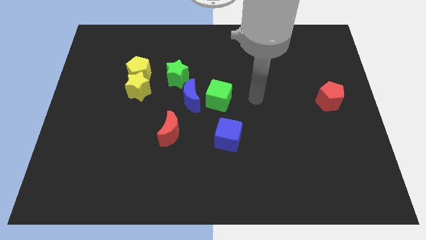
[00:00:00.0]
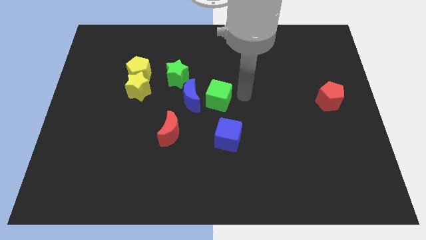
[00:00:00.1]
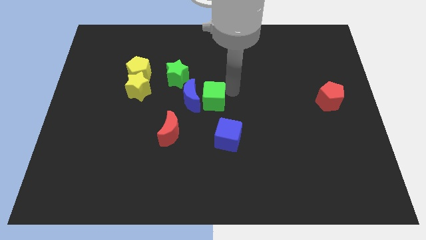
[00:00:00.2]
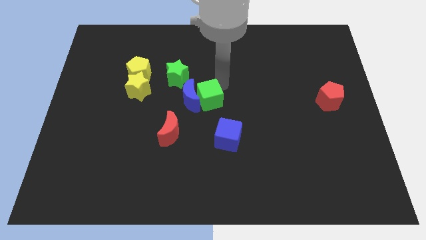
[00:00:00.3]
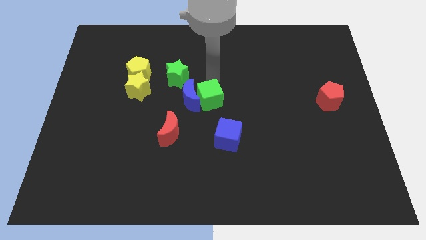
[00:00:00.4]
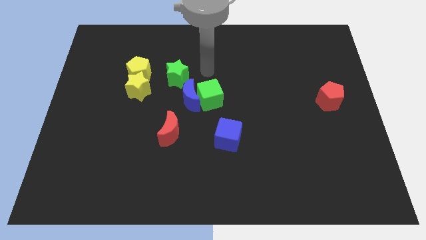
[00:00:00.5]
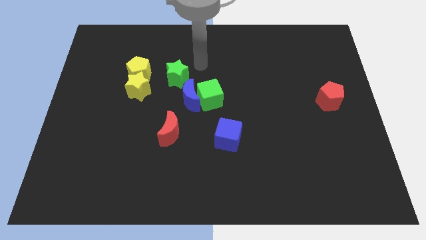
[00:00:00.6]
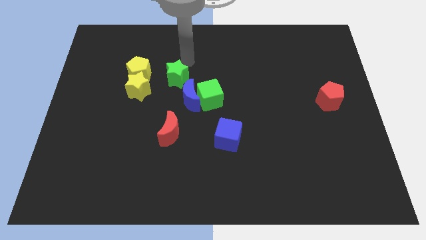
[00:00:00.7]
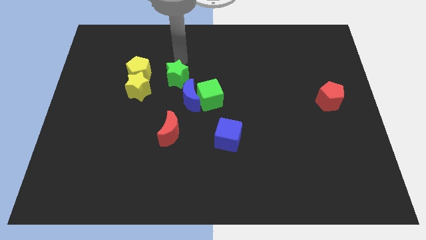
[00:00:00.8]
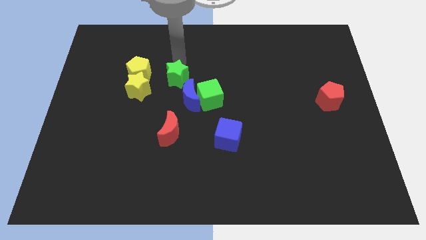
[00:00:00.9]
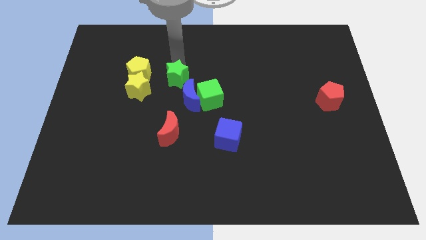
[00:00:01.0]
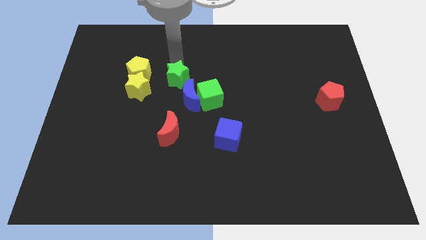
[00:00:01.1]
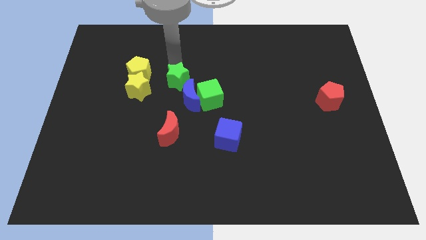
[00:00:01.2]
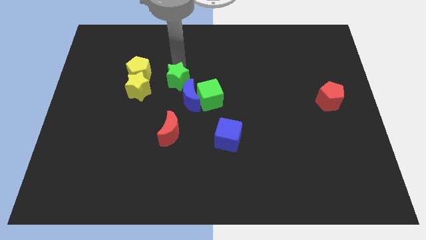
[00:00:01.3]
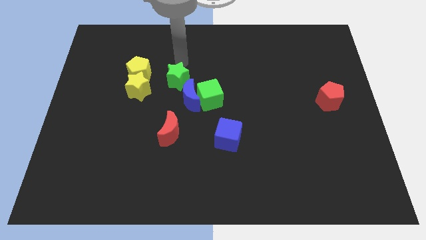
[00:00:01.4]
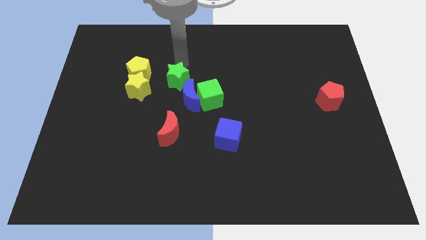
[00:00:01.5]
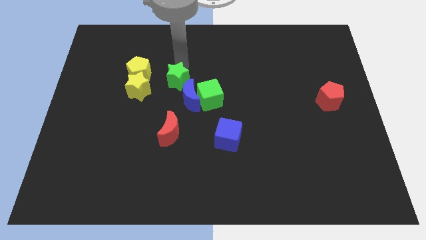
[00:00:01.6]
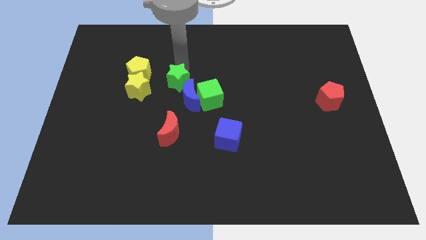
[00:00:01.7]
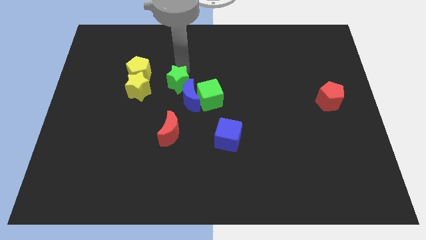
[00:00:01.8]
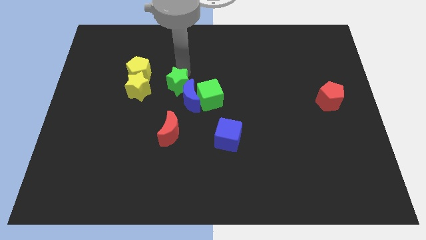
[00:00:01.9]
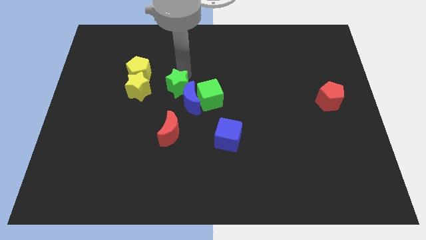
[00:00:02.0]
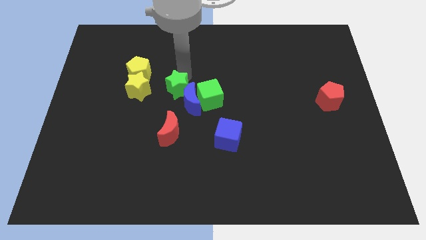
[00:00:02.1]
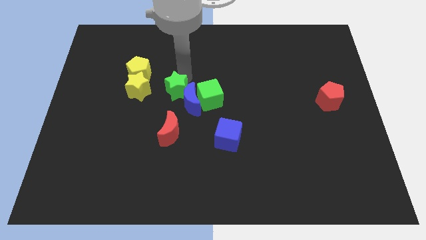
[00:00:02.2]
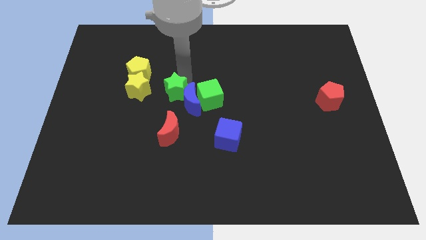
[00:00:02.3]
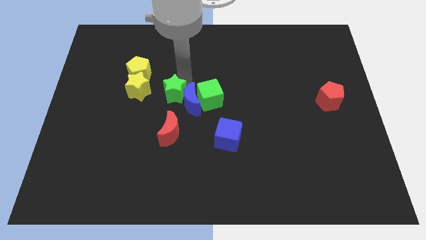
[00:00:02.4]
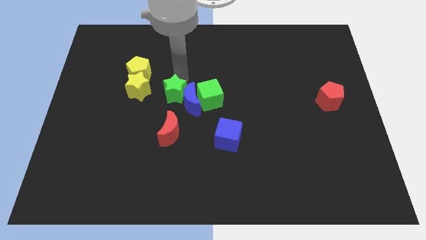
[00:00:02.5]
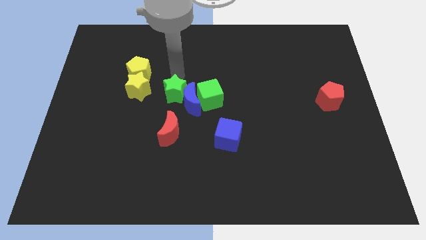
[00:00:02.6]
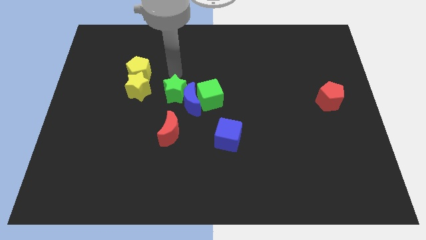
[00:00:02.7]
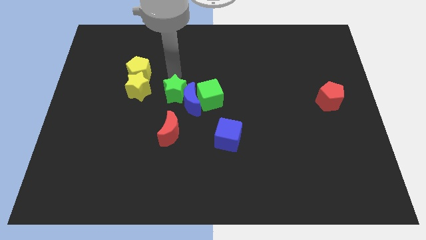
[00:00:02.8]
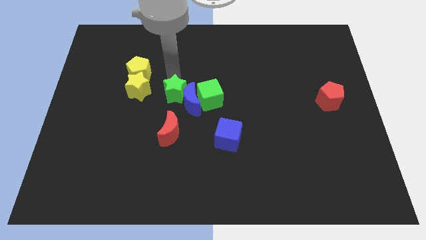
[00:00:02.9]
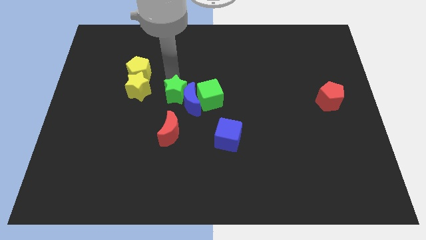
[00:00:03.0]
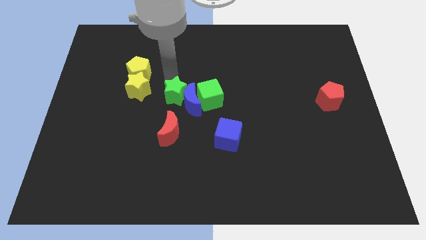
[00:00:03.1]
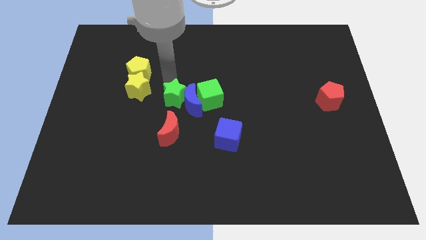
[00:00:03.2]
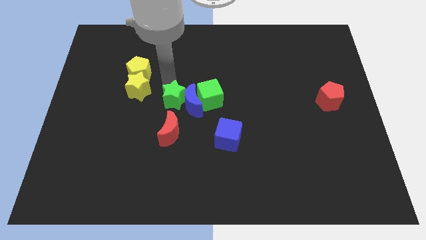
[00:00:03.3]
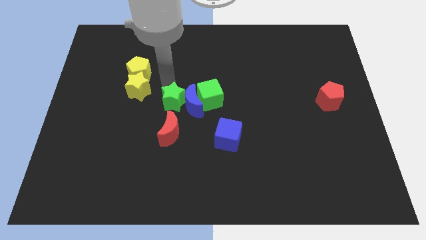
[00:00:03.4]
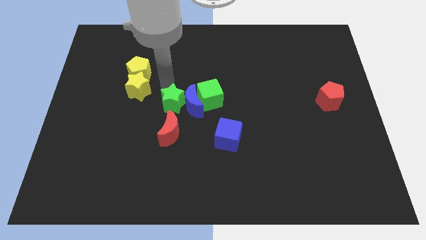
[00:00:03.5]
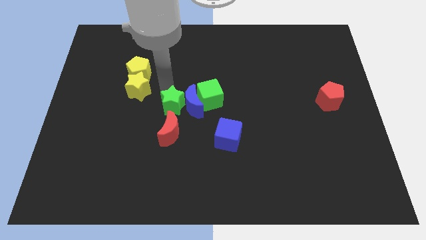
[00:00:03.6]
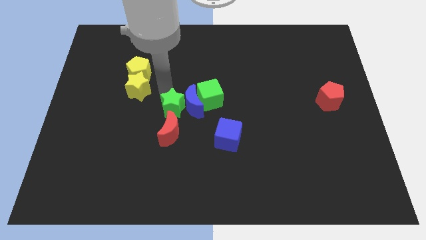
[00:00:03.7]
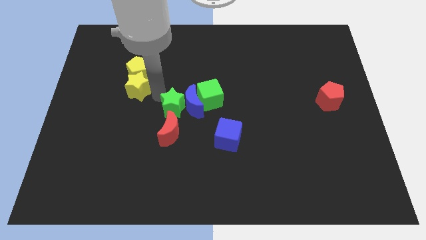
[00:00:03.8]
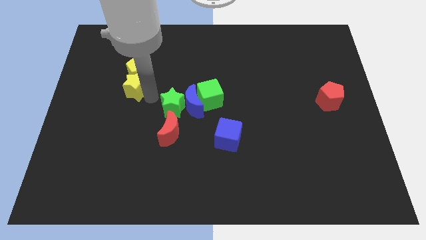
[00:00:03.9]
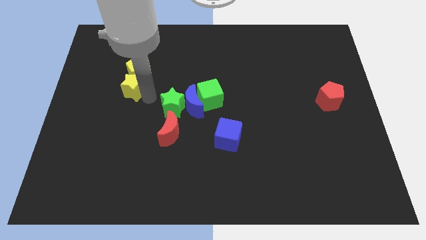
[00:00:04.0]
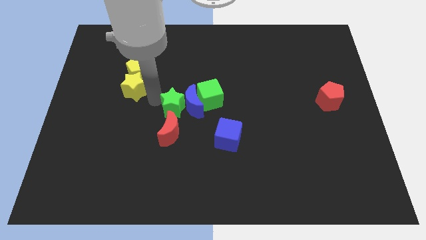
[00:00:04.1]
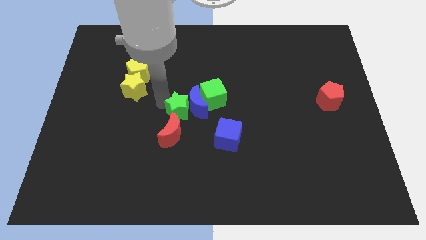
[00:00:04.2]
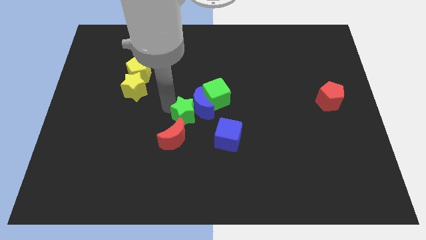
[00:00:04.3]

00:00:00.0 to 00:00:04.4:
move the green star to the top left side of the blue cube

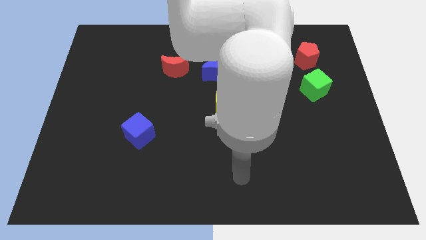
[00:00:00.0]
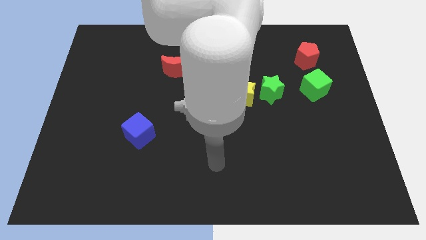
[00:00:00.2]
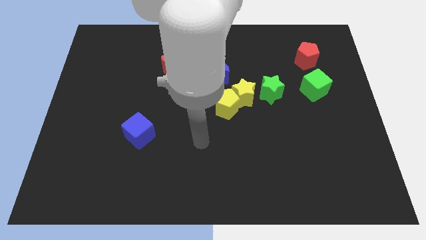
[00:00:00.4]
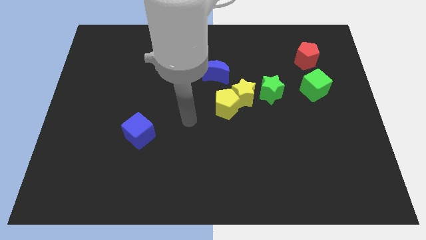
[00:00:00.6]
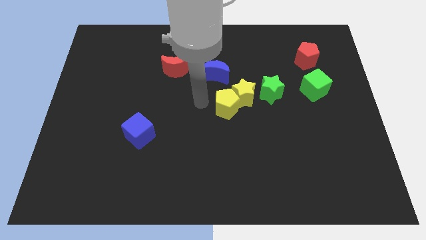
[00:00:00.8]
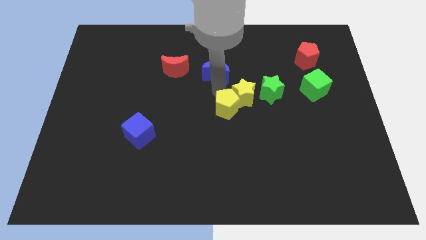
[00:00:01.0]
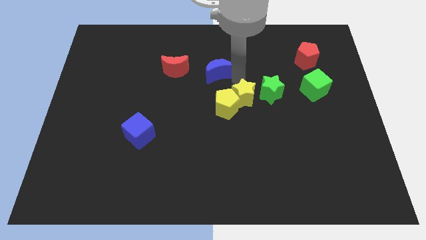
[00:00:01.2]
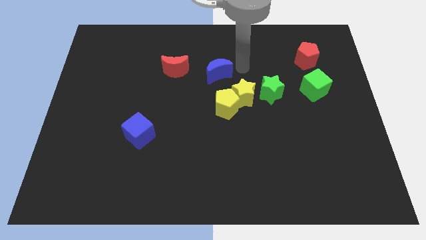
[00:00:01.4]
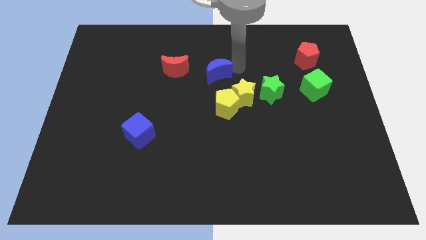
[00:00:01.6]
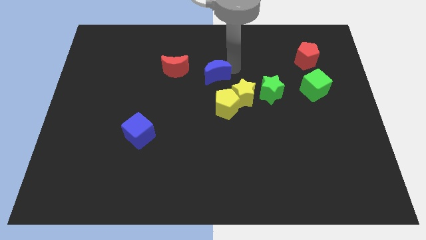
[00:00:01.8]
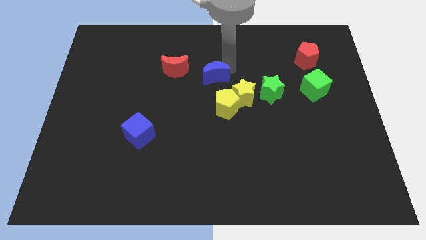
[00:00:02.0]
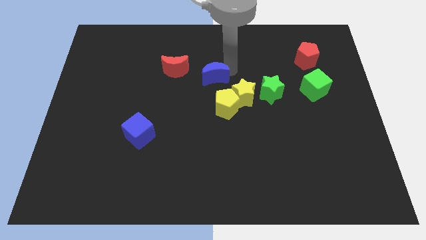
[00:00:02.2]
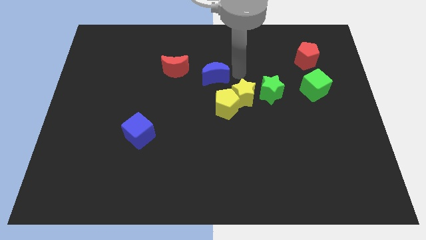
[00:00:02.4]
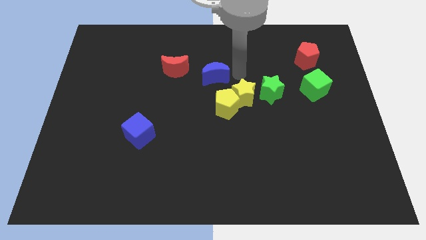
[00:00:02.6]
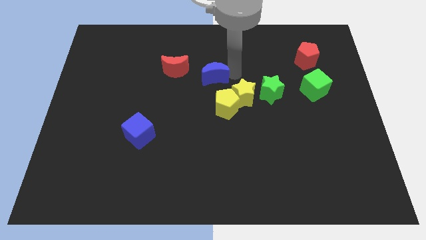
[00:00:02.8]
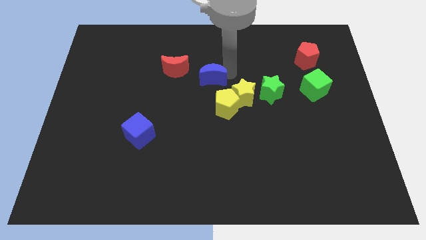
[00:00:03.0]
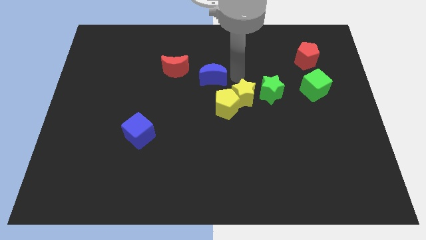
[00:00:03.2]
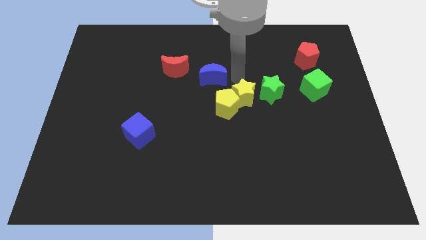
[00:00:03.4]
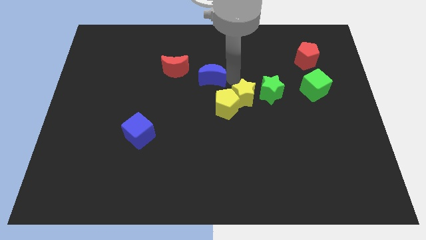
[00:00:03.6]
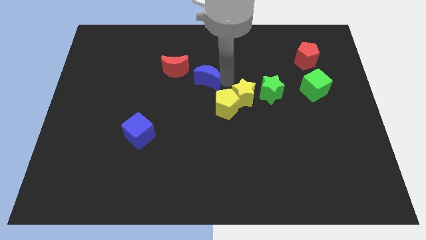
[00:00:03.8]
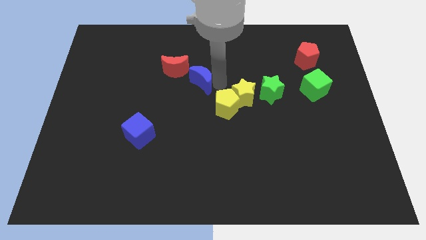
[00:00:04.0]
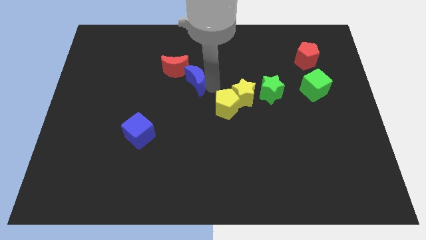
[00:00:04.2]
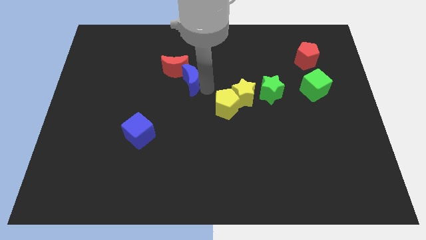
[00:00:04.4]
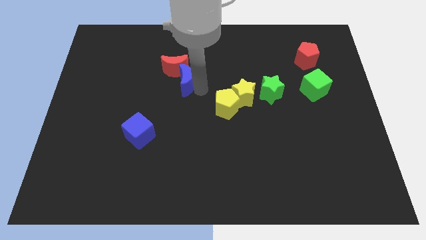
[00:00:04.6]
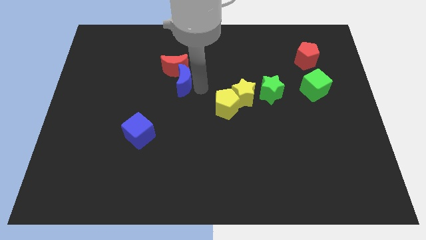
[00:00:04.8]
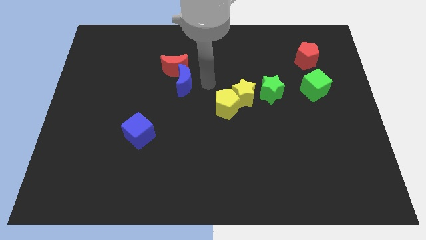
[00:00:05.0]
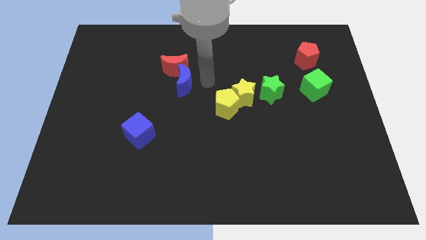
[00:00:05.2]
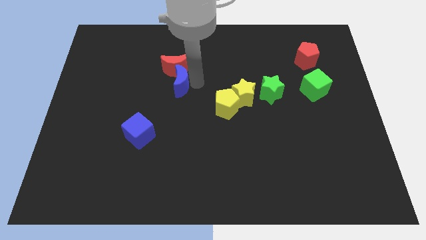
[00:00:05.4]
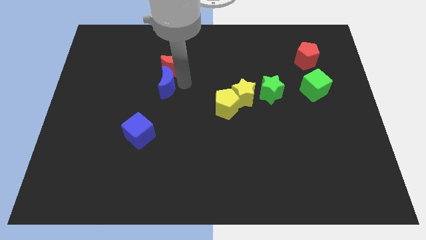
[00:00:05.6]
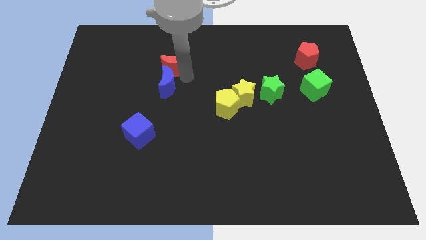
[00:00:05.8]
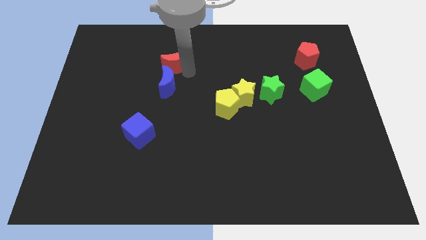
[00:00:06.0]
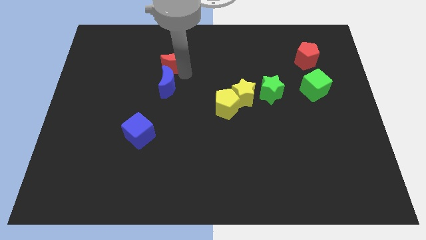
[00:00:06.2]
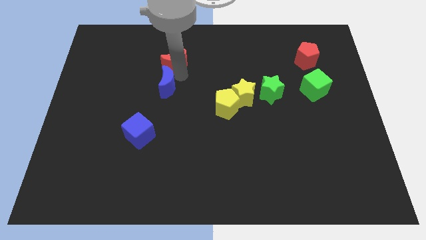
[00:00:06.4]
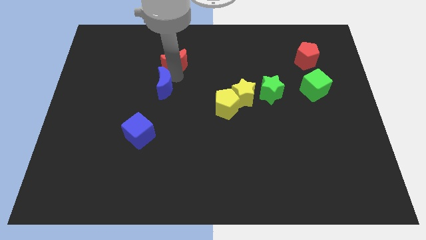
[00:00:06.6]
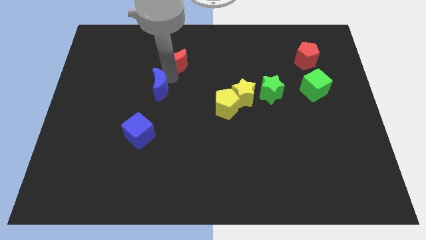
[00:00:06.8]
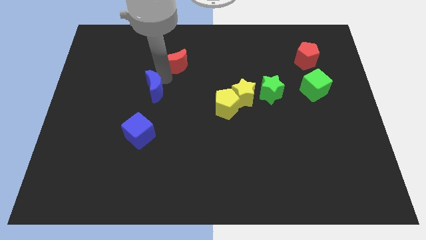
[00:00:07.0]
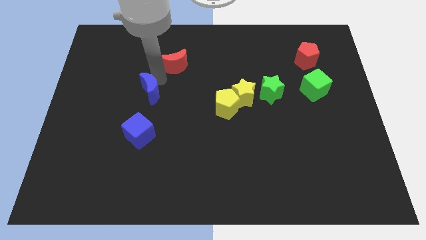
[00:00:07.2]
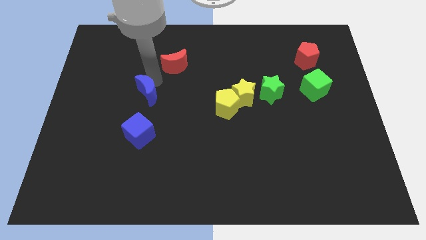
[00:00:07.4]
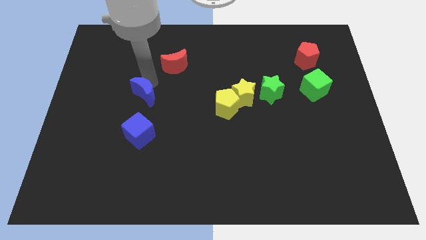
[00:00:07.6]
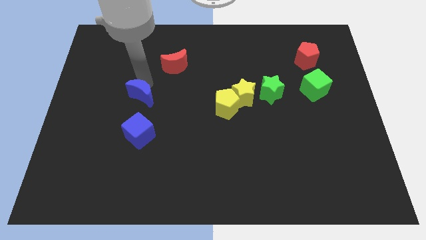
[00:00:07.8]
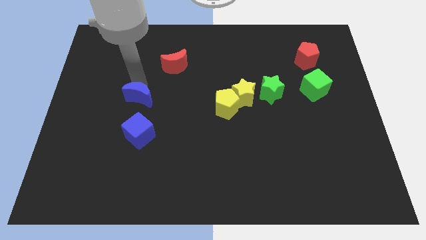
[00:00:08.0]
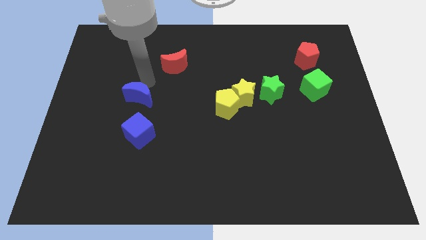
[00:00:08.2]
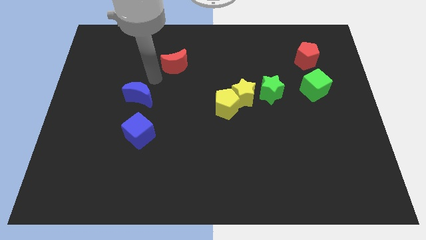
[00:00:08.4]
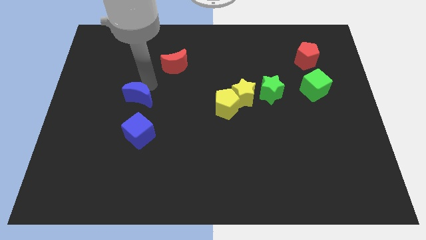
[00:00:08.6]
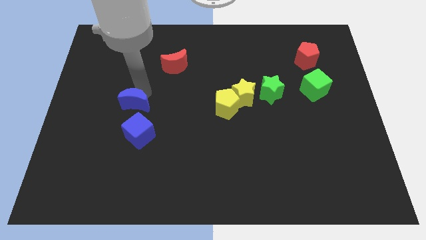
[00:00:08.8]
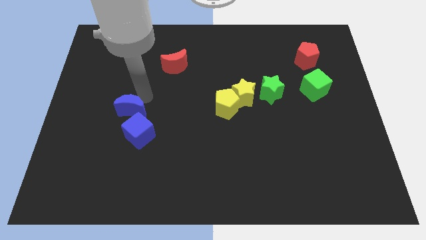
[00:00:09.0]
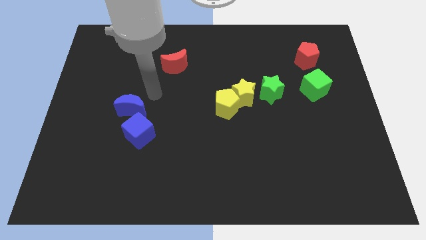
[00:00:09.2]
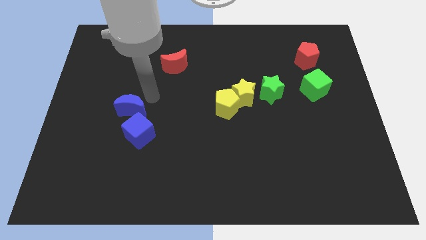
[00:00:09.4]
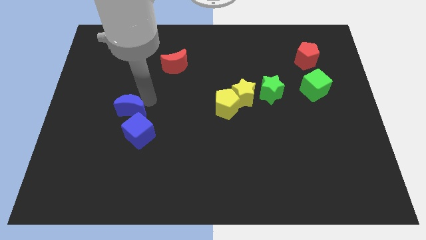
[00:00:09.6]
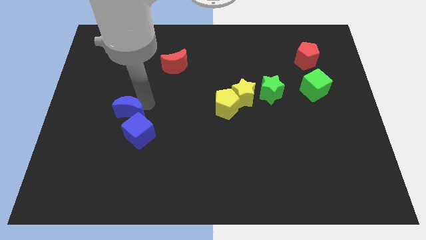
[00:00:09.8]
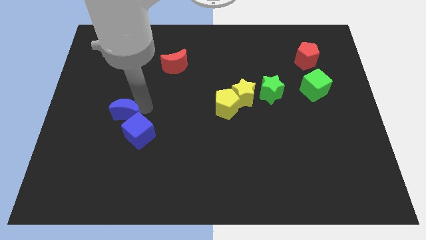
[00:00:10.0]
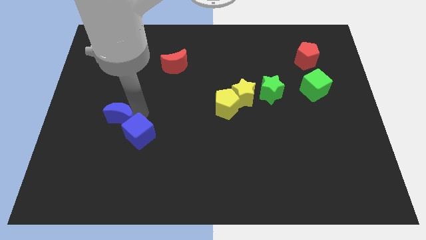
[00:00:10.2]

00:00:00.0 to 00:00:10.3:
put the blue moon to the left of the blue cube
